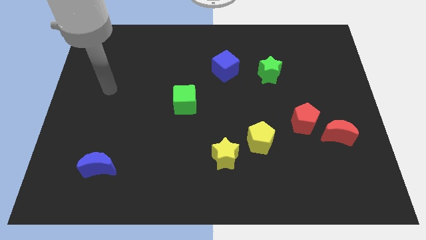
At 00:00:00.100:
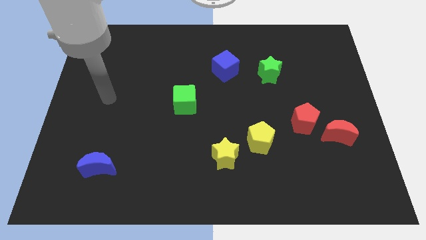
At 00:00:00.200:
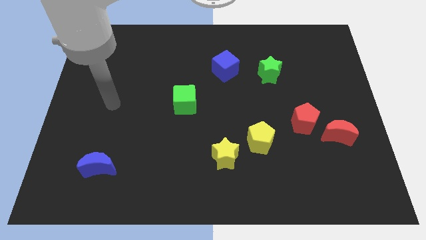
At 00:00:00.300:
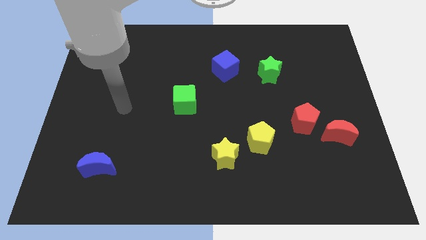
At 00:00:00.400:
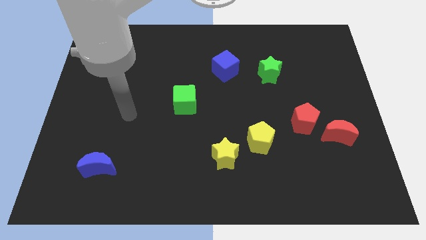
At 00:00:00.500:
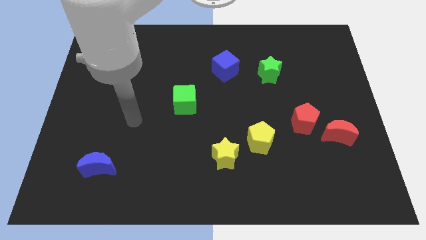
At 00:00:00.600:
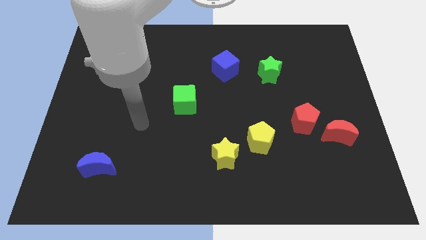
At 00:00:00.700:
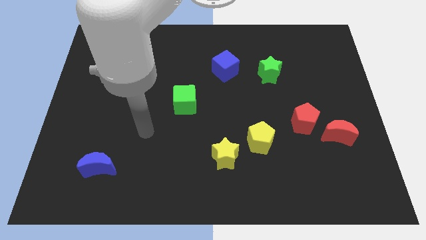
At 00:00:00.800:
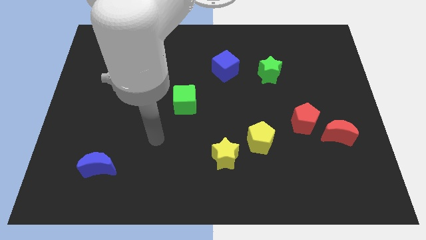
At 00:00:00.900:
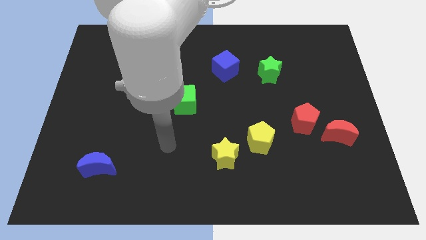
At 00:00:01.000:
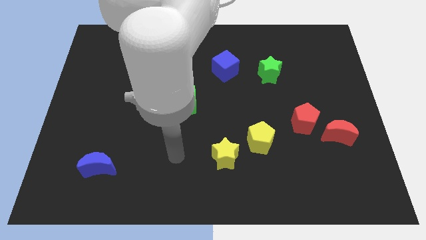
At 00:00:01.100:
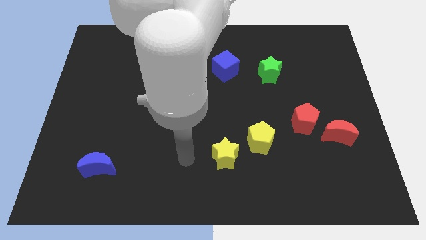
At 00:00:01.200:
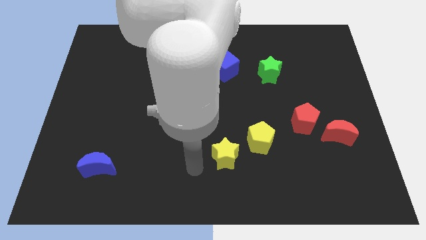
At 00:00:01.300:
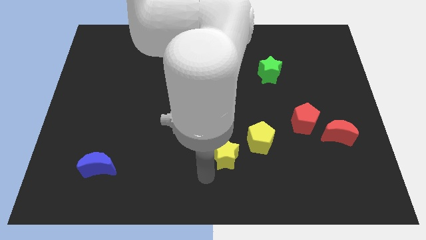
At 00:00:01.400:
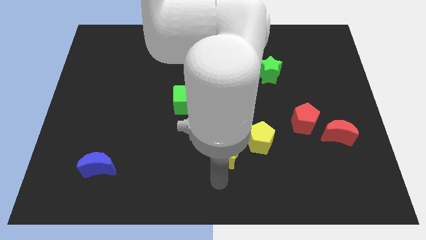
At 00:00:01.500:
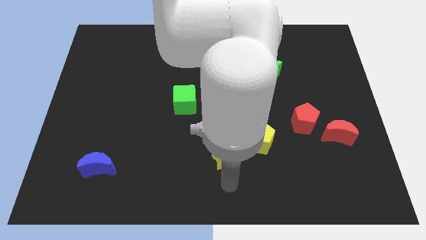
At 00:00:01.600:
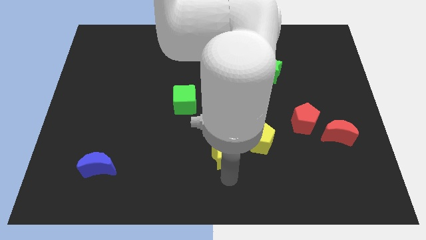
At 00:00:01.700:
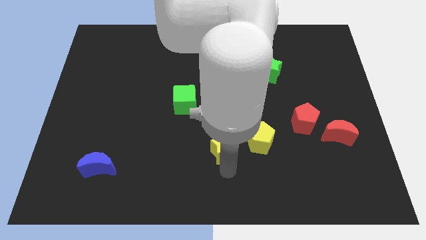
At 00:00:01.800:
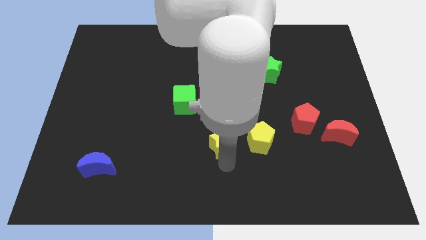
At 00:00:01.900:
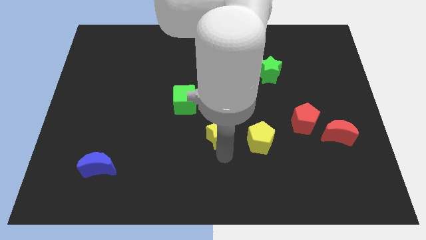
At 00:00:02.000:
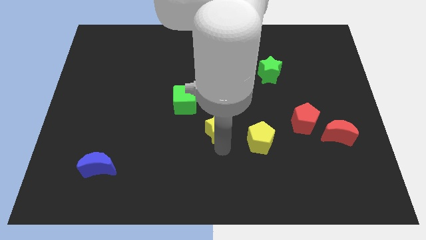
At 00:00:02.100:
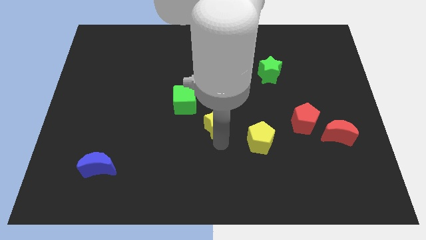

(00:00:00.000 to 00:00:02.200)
slide the yellow star upwards slightly

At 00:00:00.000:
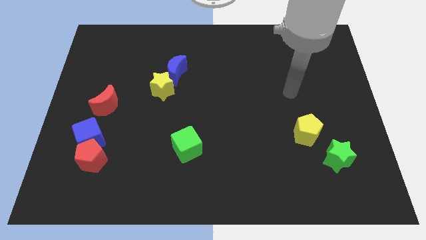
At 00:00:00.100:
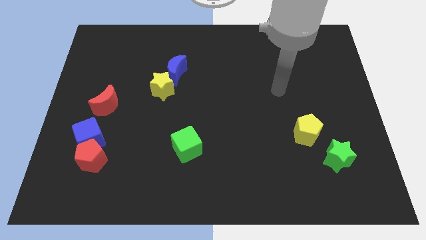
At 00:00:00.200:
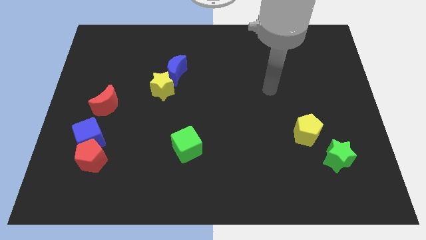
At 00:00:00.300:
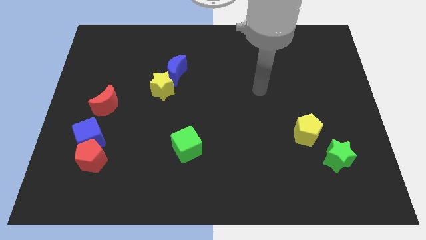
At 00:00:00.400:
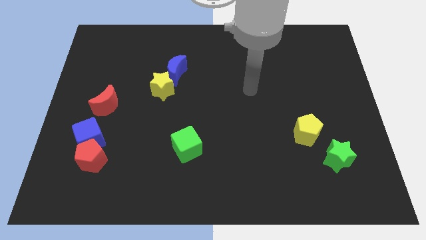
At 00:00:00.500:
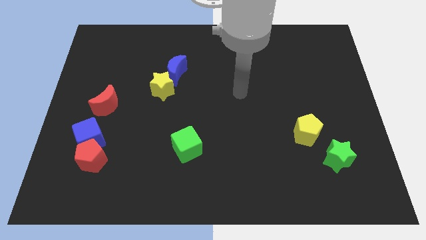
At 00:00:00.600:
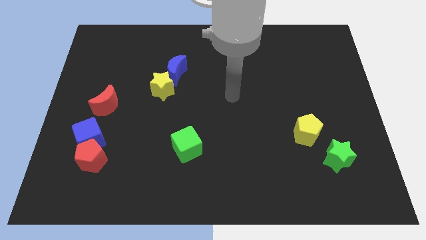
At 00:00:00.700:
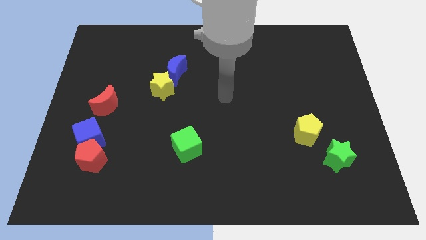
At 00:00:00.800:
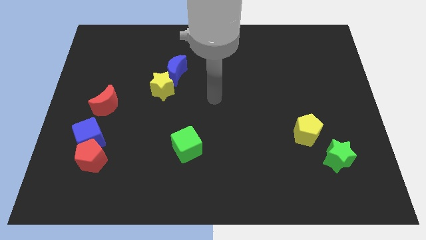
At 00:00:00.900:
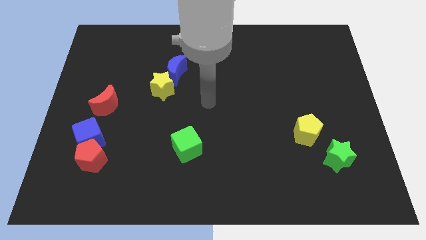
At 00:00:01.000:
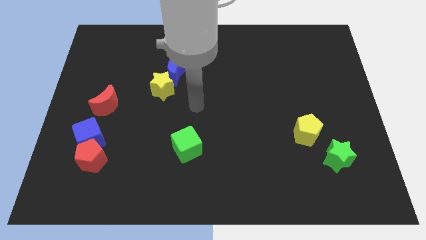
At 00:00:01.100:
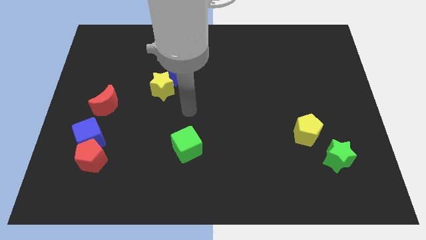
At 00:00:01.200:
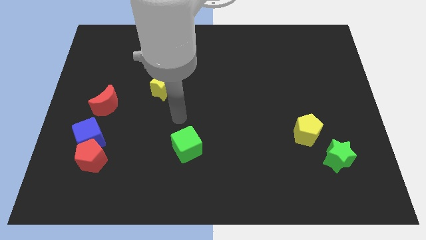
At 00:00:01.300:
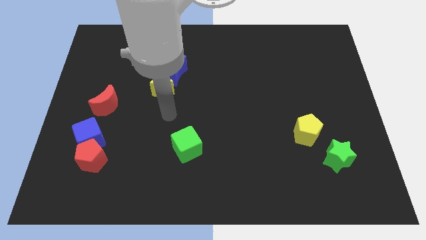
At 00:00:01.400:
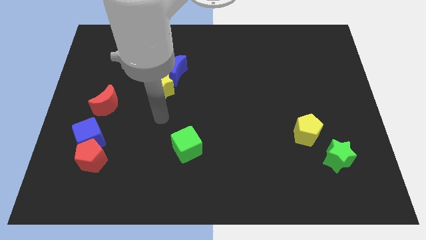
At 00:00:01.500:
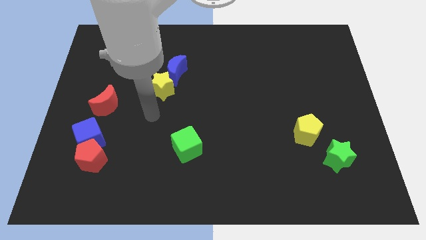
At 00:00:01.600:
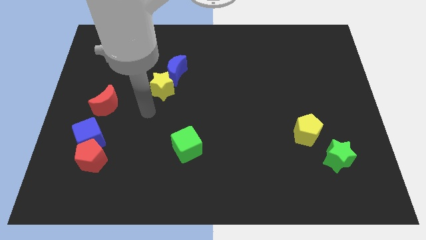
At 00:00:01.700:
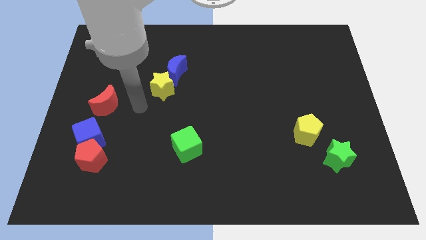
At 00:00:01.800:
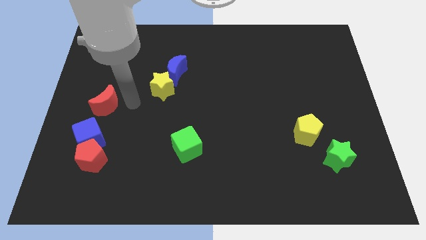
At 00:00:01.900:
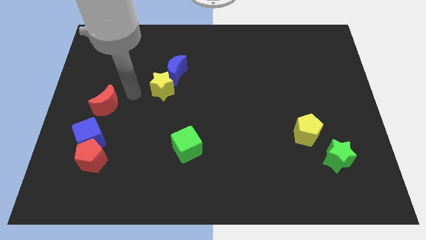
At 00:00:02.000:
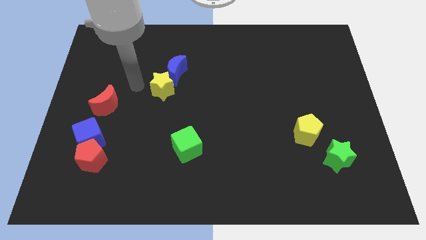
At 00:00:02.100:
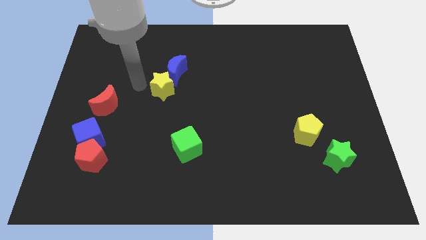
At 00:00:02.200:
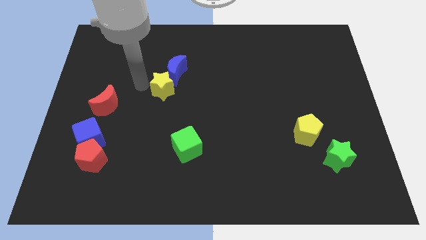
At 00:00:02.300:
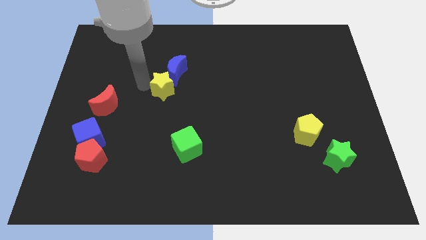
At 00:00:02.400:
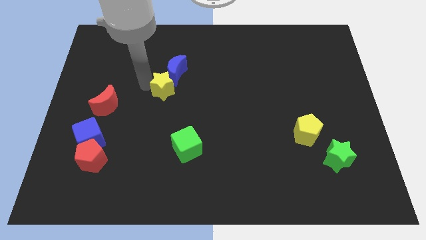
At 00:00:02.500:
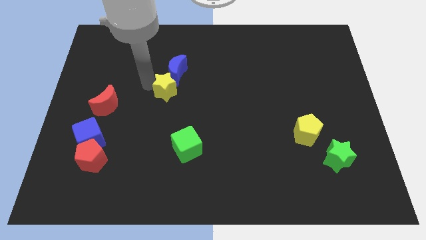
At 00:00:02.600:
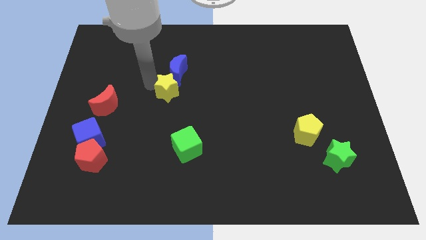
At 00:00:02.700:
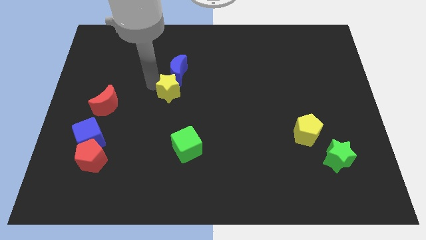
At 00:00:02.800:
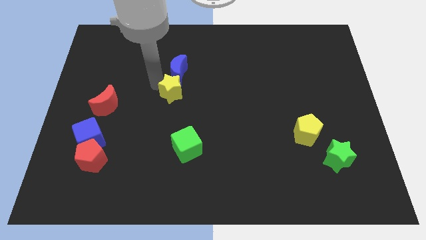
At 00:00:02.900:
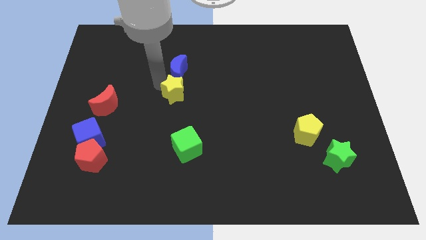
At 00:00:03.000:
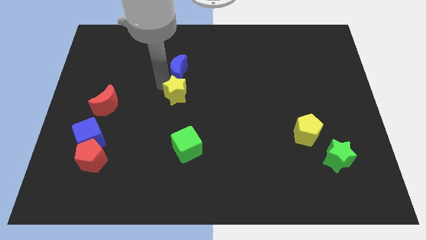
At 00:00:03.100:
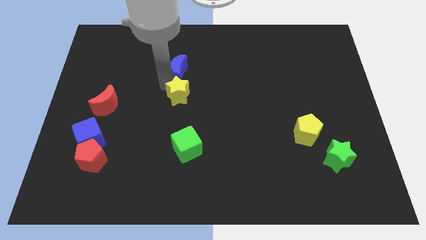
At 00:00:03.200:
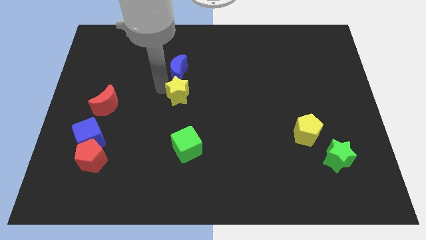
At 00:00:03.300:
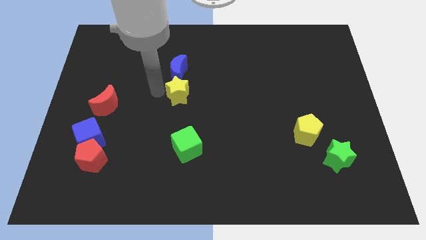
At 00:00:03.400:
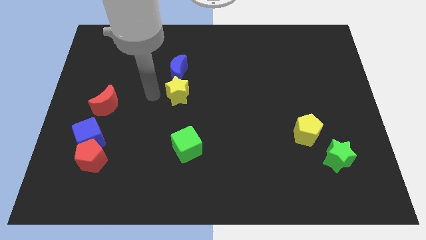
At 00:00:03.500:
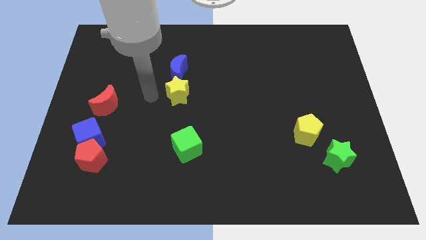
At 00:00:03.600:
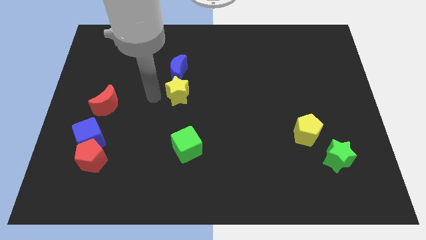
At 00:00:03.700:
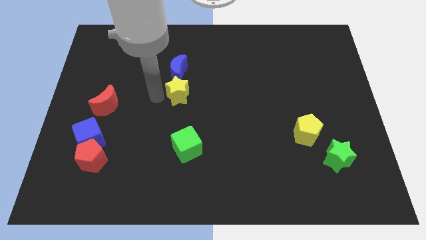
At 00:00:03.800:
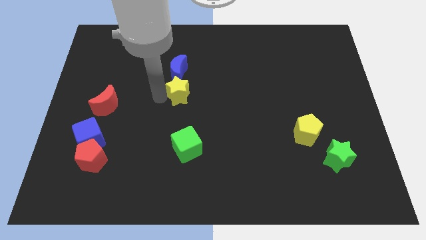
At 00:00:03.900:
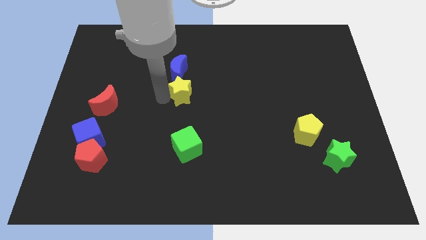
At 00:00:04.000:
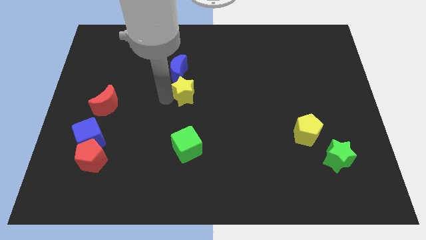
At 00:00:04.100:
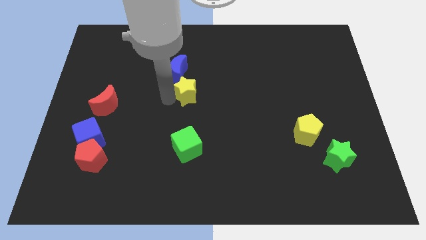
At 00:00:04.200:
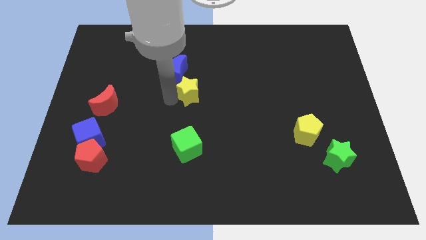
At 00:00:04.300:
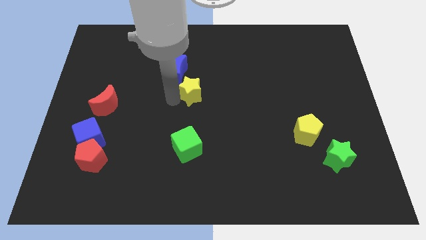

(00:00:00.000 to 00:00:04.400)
move the yellow star to the right slightly

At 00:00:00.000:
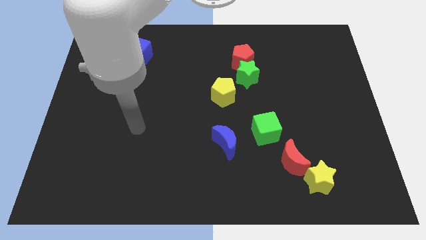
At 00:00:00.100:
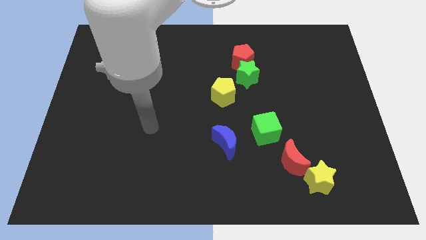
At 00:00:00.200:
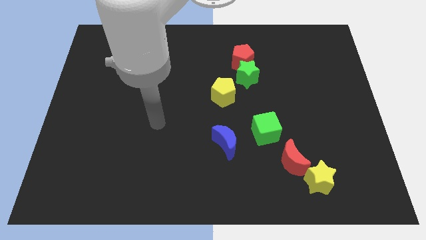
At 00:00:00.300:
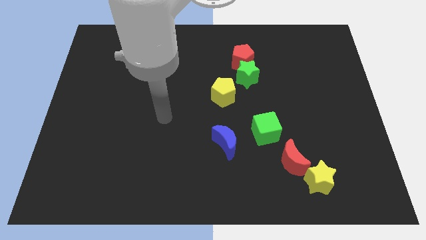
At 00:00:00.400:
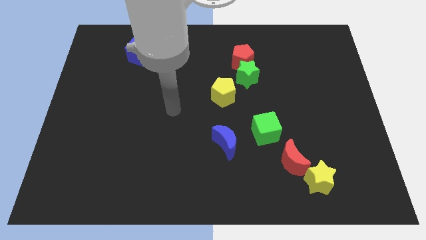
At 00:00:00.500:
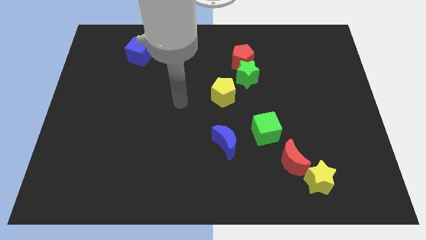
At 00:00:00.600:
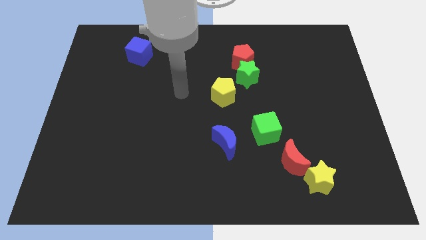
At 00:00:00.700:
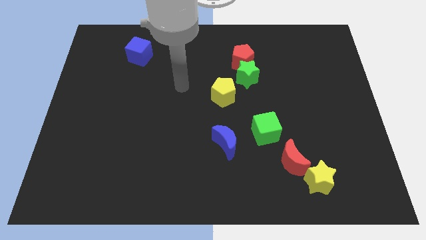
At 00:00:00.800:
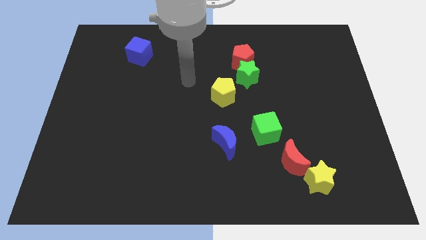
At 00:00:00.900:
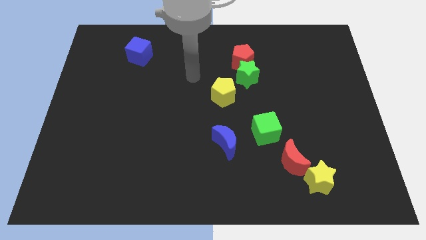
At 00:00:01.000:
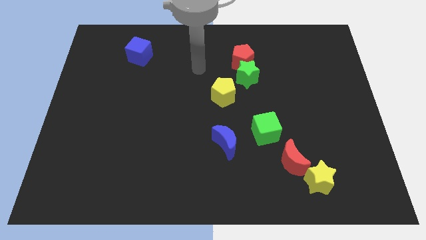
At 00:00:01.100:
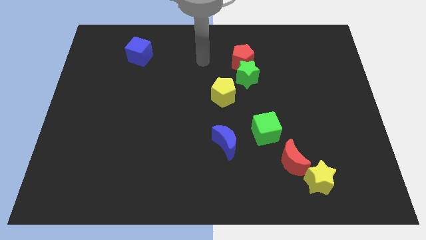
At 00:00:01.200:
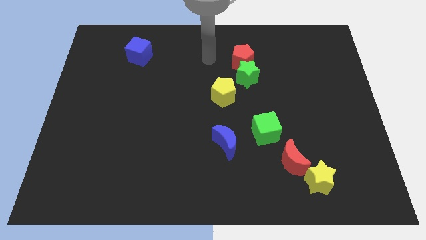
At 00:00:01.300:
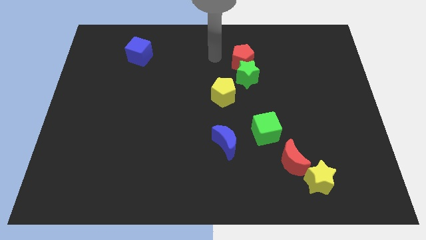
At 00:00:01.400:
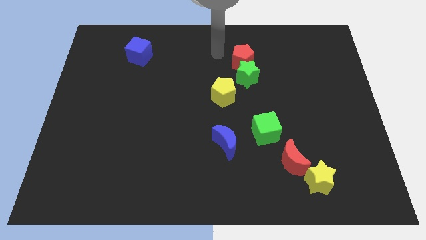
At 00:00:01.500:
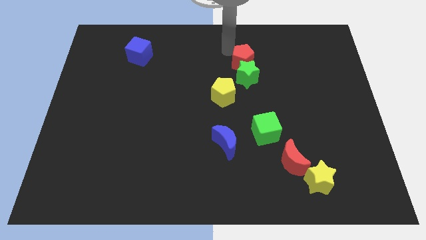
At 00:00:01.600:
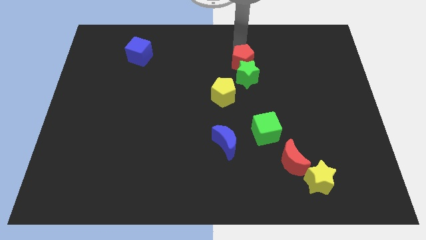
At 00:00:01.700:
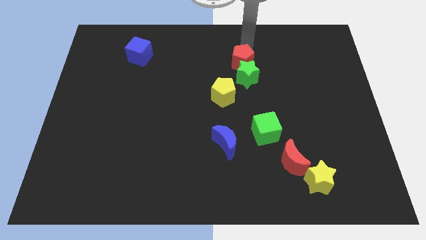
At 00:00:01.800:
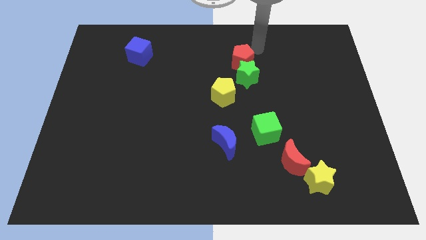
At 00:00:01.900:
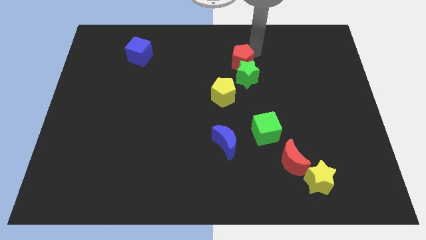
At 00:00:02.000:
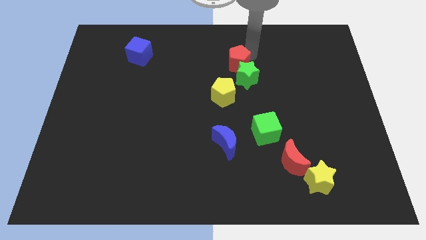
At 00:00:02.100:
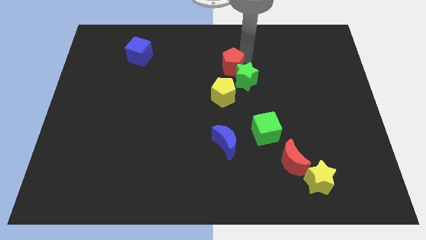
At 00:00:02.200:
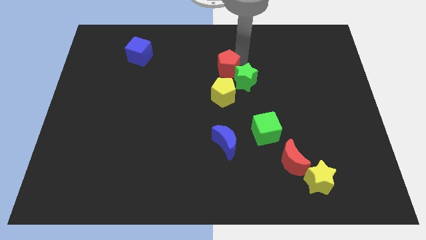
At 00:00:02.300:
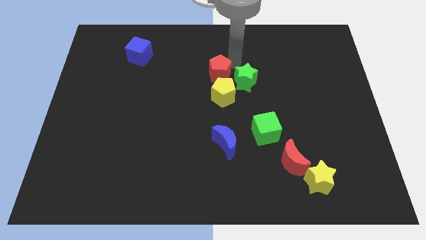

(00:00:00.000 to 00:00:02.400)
push the red pentagon downwards and to the left a little
